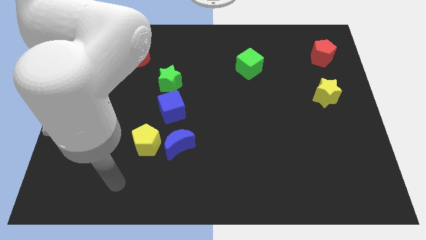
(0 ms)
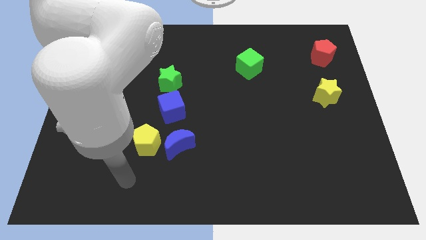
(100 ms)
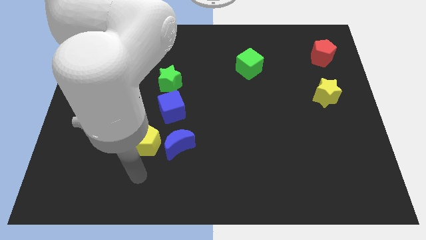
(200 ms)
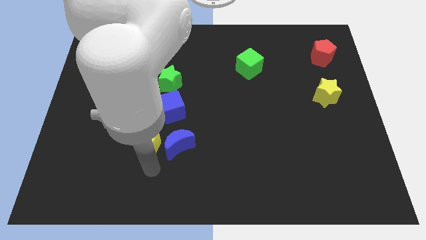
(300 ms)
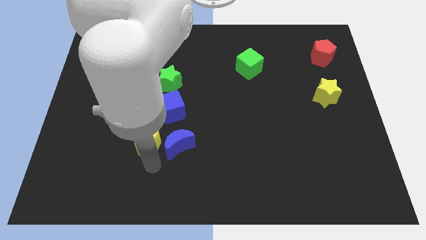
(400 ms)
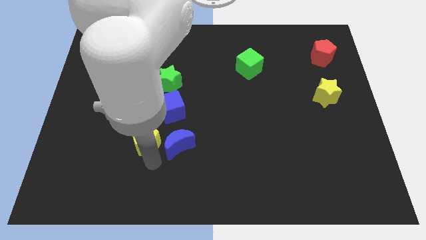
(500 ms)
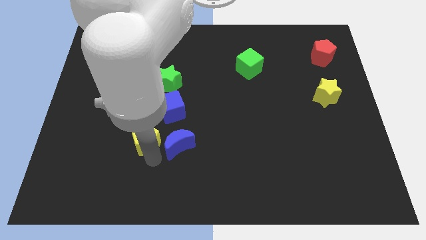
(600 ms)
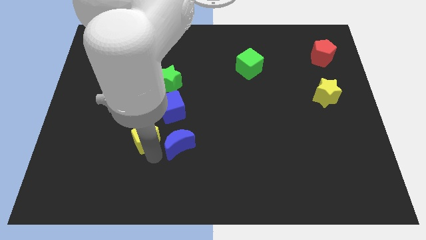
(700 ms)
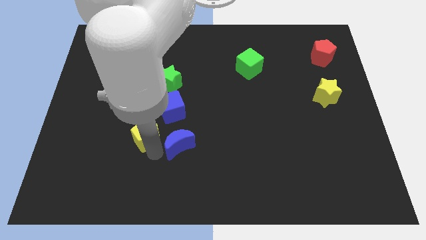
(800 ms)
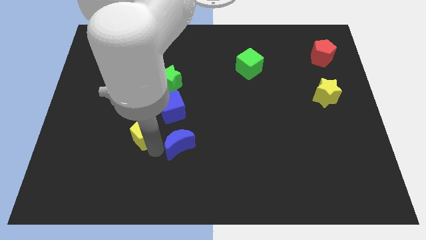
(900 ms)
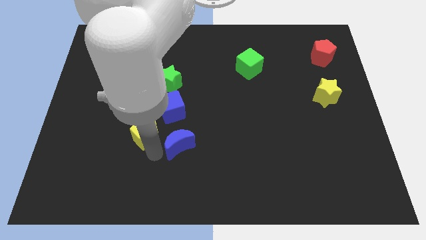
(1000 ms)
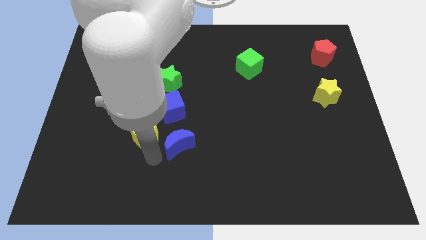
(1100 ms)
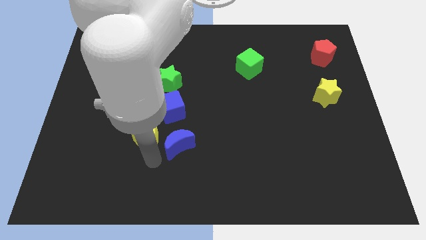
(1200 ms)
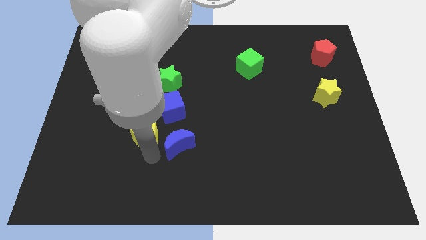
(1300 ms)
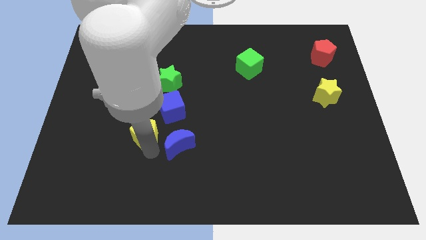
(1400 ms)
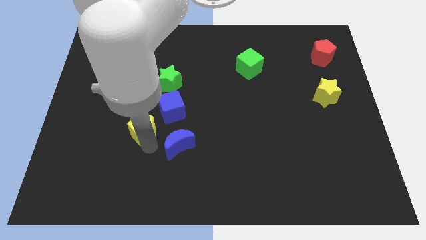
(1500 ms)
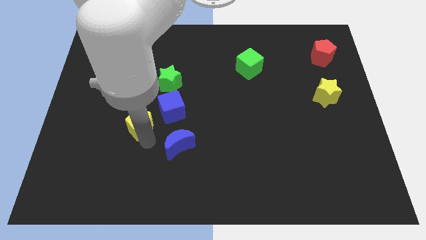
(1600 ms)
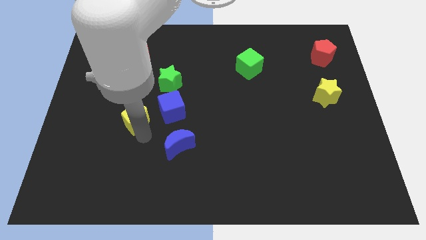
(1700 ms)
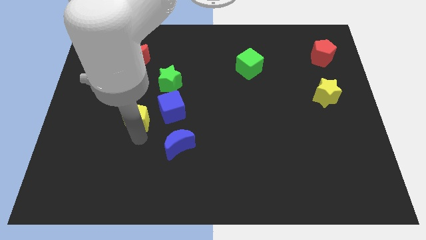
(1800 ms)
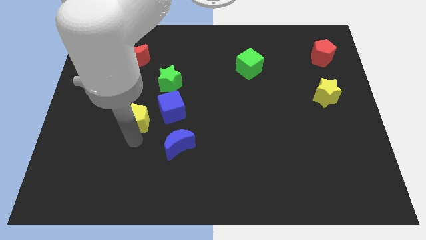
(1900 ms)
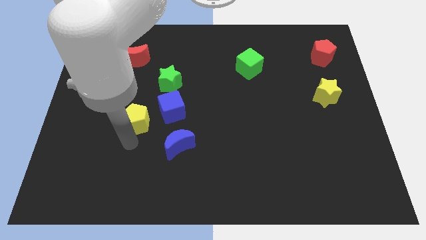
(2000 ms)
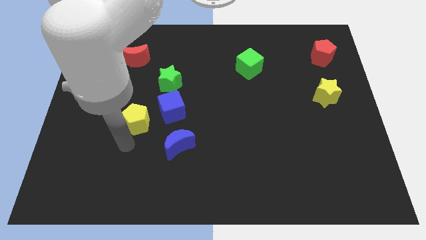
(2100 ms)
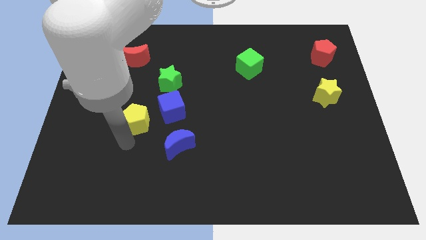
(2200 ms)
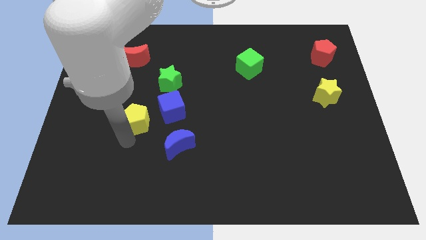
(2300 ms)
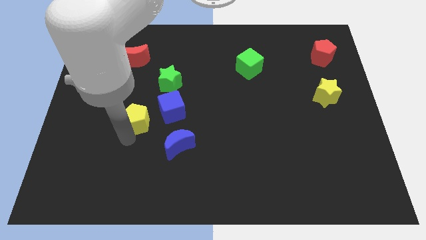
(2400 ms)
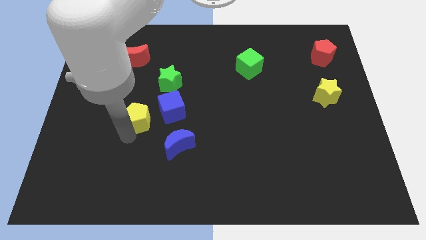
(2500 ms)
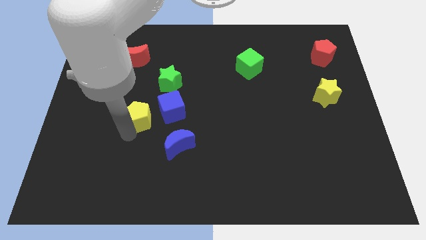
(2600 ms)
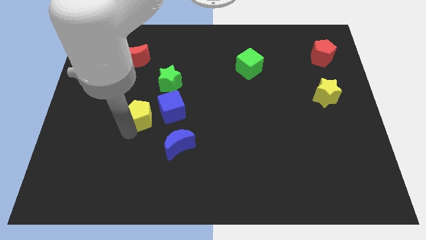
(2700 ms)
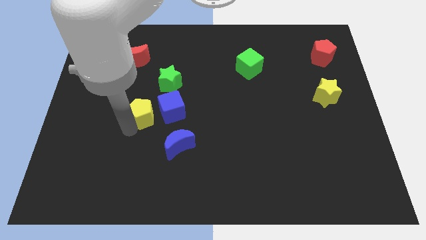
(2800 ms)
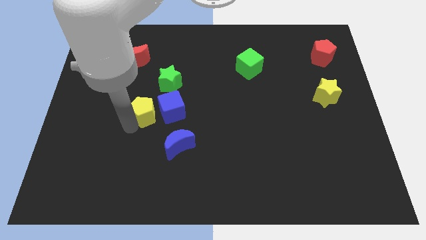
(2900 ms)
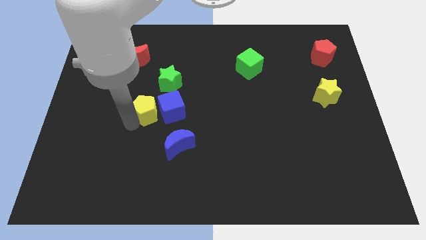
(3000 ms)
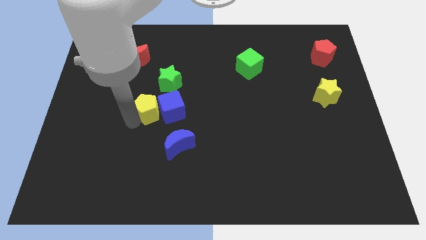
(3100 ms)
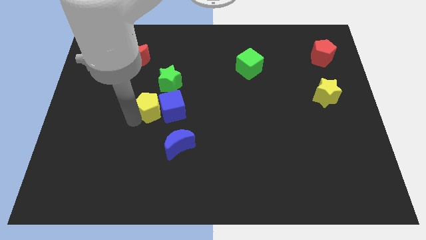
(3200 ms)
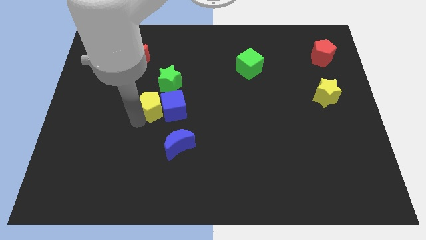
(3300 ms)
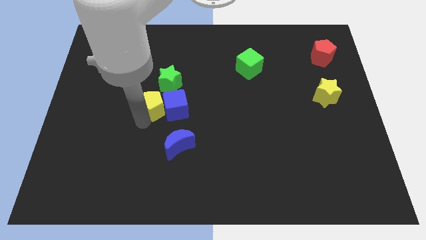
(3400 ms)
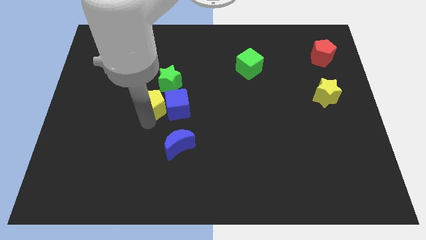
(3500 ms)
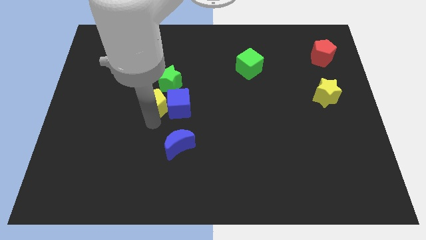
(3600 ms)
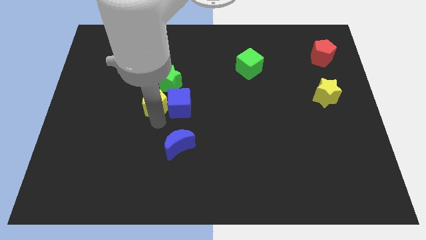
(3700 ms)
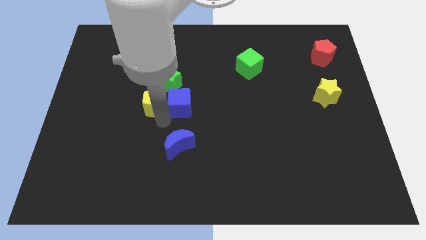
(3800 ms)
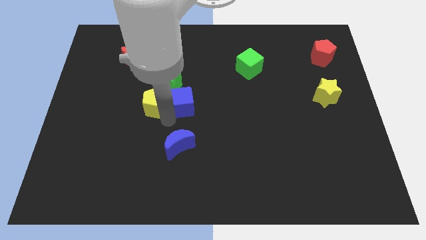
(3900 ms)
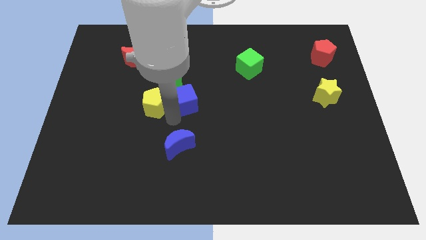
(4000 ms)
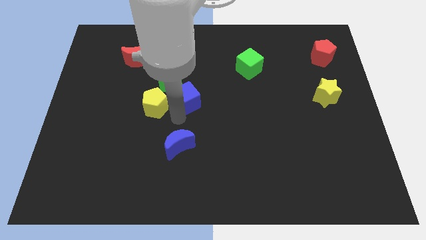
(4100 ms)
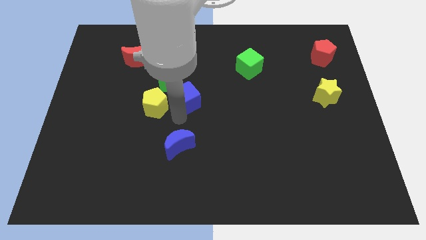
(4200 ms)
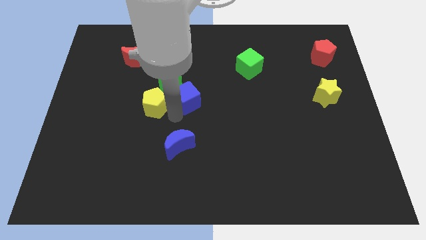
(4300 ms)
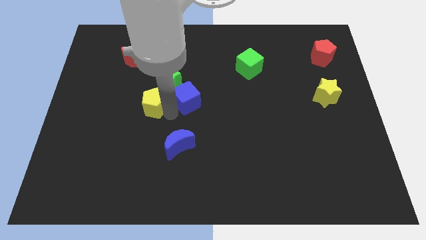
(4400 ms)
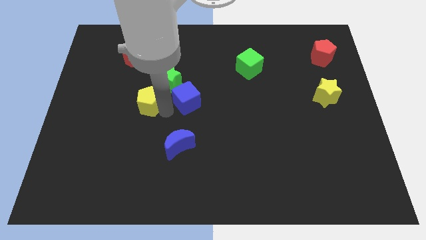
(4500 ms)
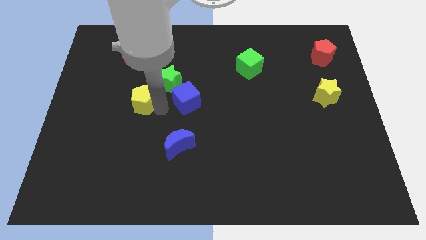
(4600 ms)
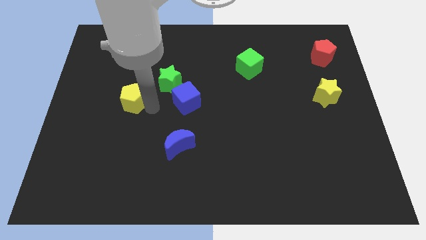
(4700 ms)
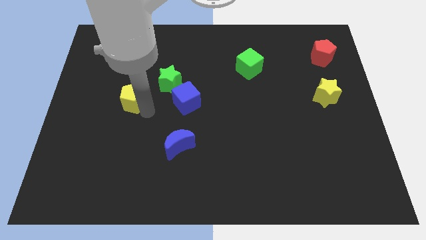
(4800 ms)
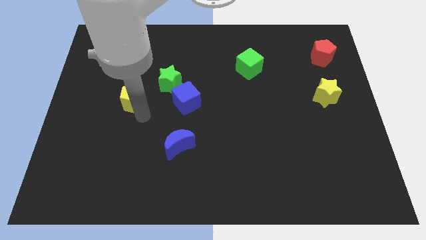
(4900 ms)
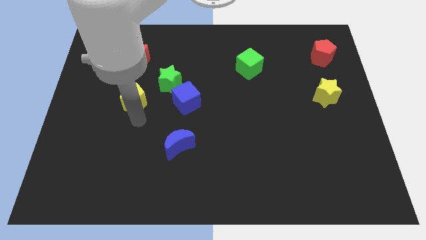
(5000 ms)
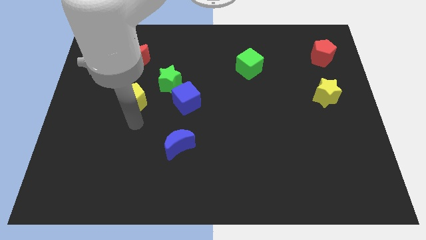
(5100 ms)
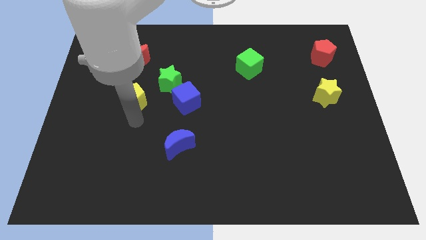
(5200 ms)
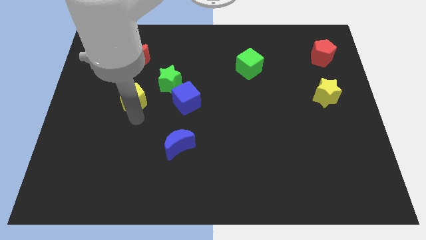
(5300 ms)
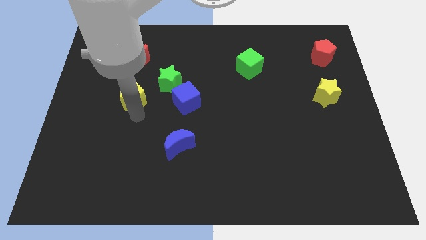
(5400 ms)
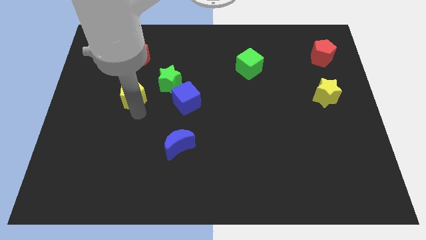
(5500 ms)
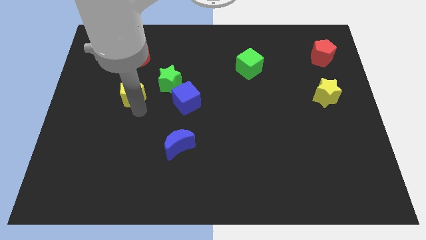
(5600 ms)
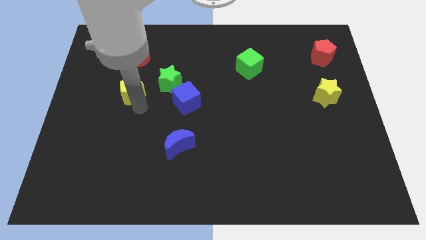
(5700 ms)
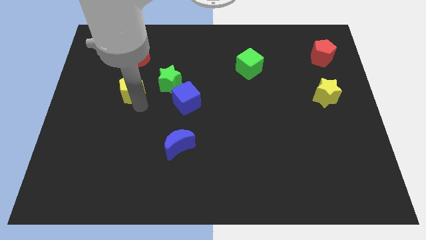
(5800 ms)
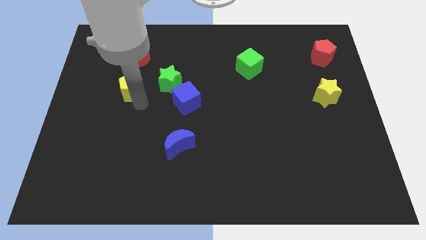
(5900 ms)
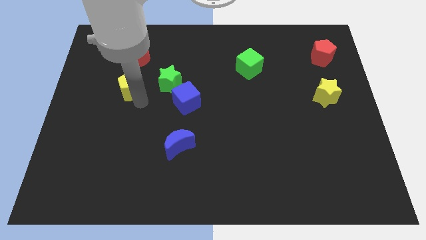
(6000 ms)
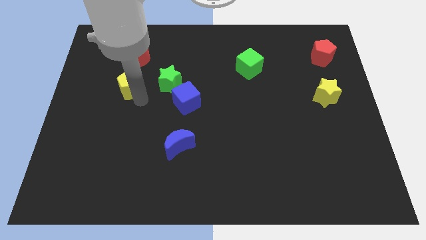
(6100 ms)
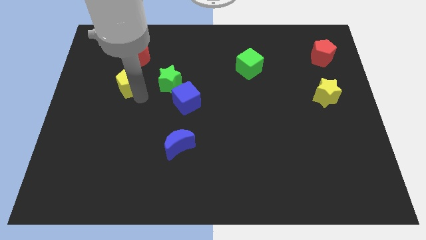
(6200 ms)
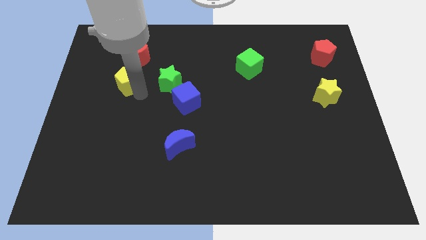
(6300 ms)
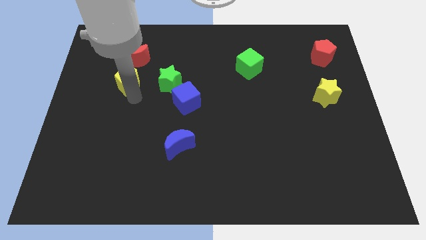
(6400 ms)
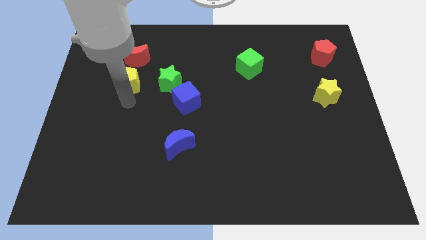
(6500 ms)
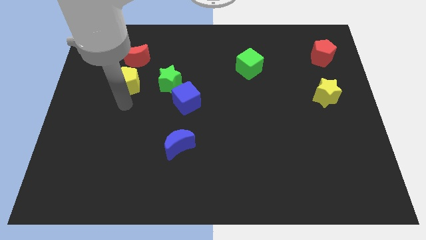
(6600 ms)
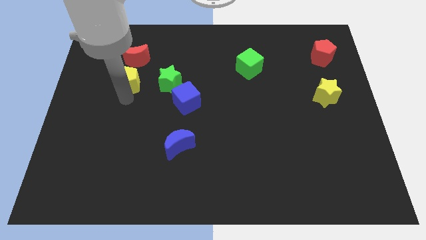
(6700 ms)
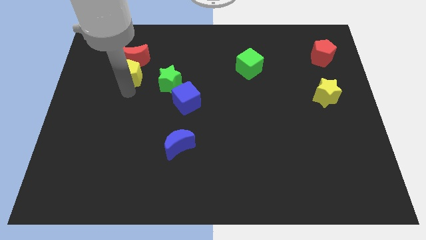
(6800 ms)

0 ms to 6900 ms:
push the yellow pentagon towards the red moon
